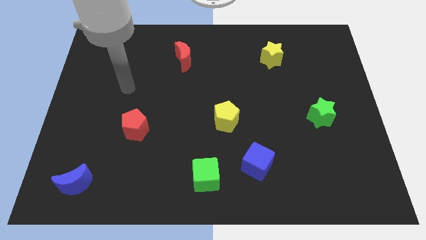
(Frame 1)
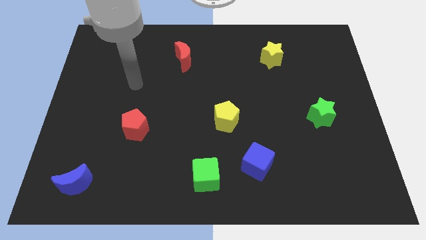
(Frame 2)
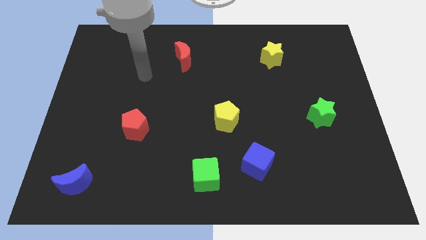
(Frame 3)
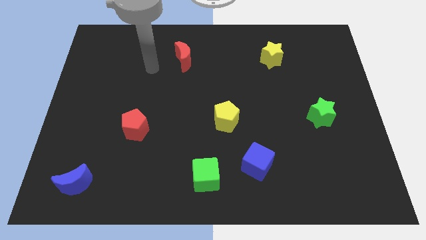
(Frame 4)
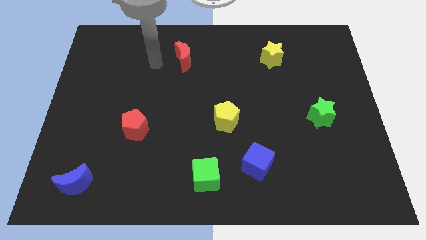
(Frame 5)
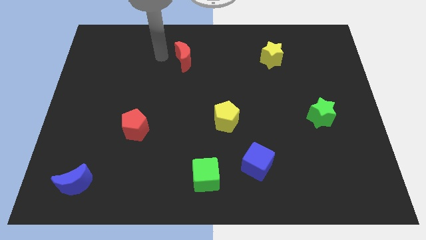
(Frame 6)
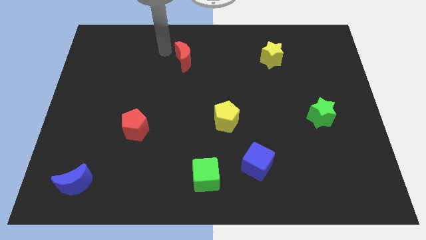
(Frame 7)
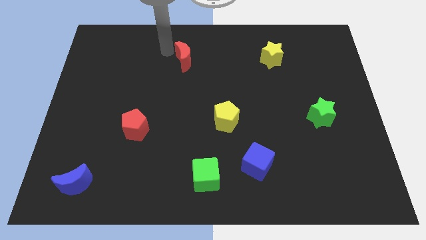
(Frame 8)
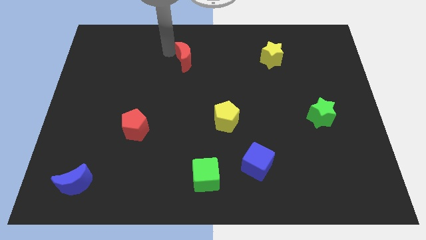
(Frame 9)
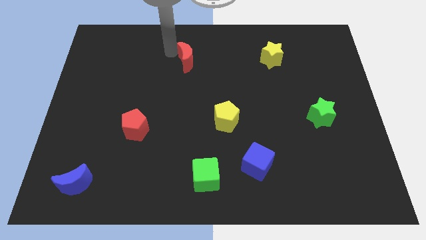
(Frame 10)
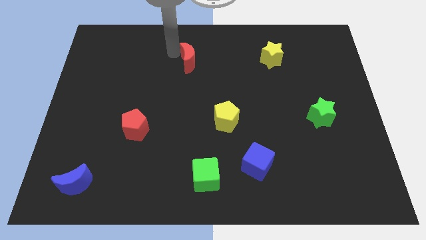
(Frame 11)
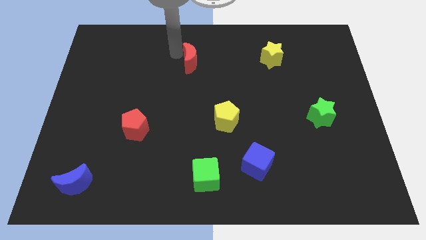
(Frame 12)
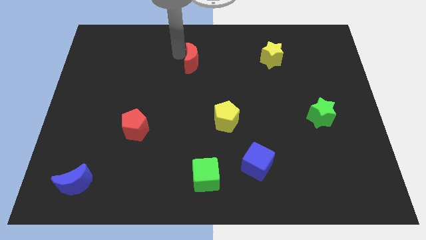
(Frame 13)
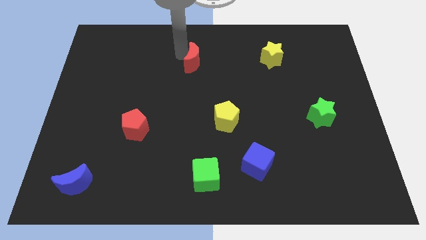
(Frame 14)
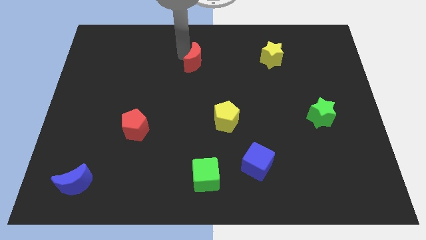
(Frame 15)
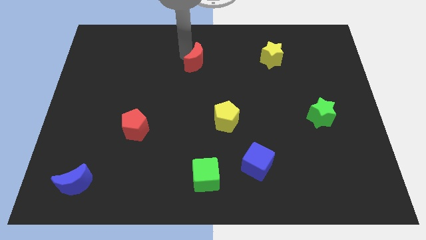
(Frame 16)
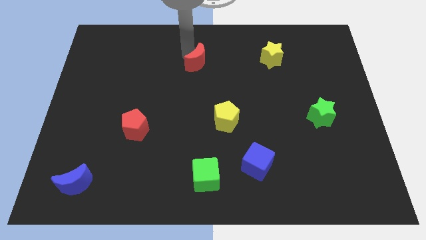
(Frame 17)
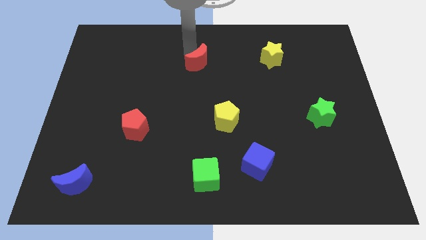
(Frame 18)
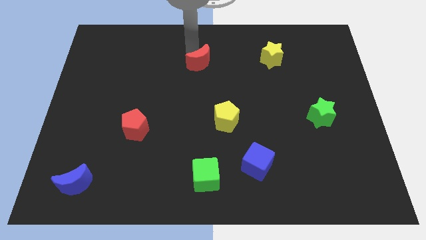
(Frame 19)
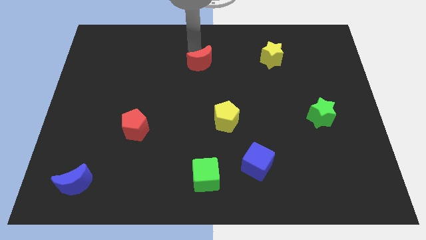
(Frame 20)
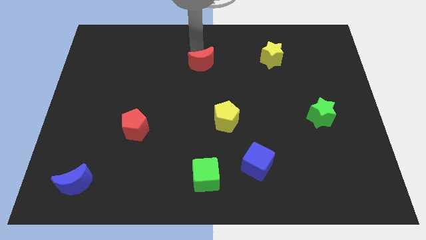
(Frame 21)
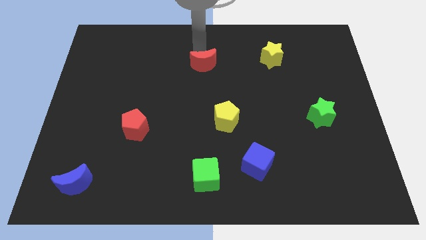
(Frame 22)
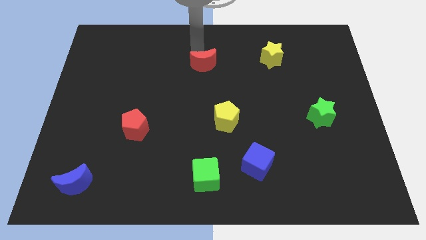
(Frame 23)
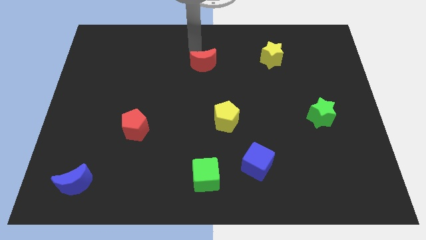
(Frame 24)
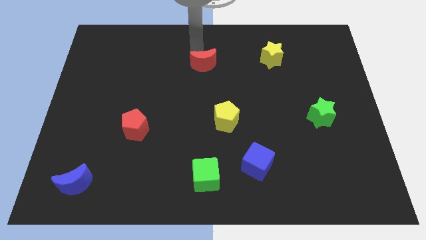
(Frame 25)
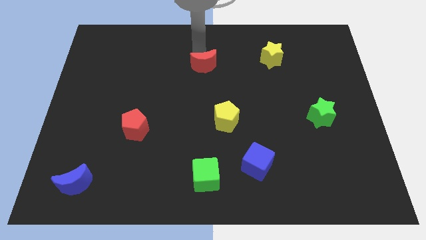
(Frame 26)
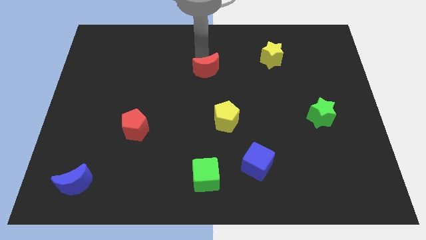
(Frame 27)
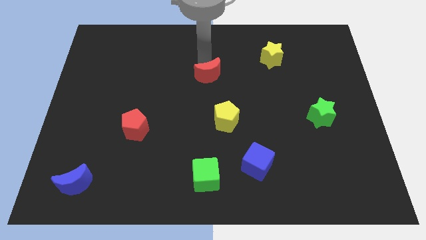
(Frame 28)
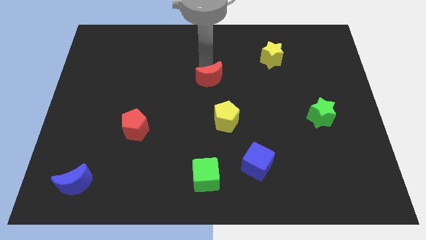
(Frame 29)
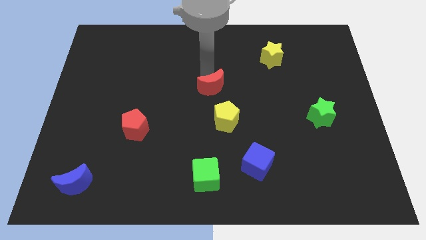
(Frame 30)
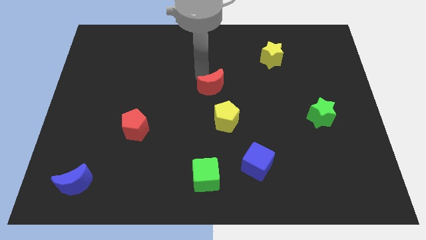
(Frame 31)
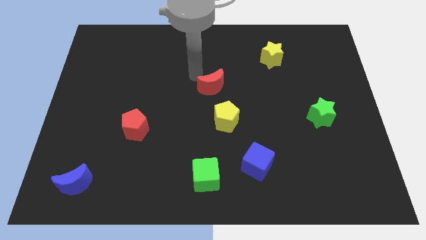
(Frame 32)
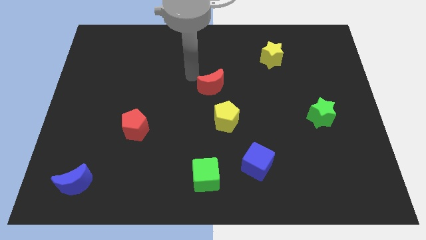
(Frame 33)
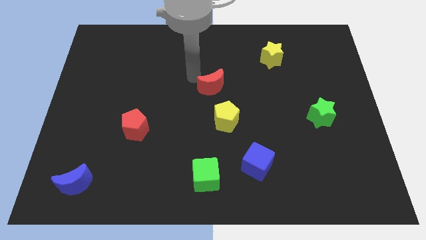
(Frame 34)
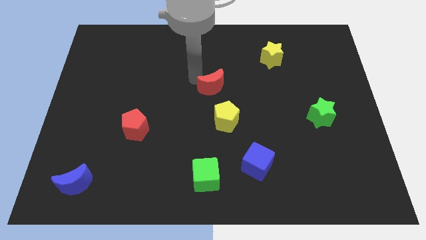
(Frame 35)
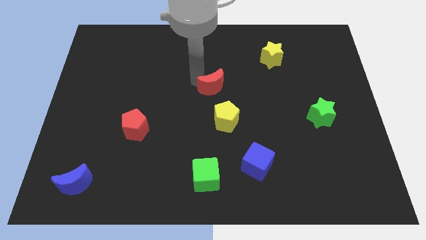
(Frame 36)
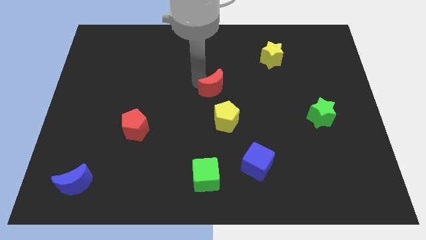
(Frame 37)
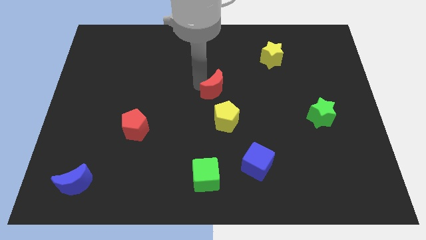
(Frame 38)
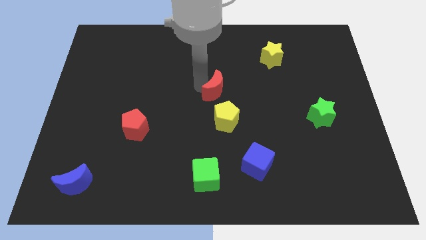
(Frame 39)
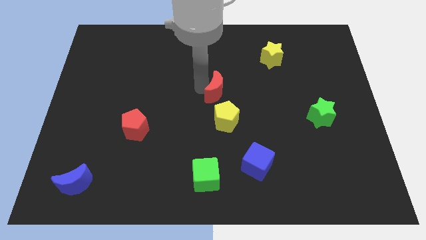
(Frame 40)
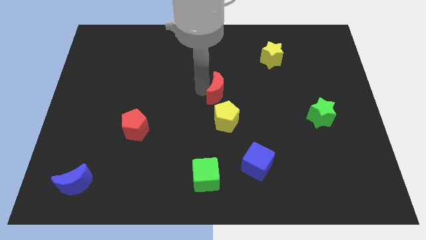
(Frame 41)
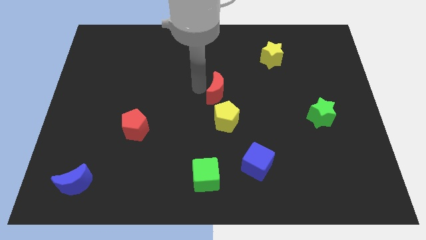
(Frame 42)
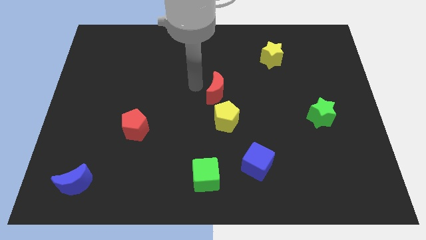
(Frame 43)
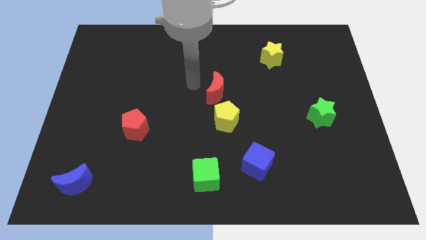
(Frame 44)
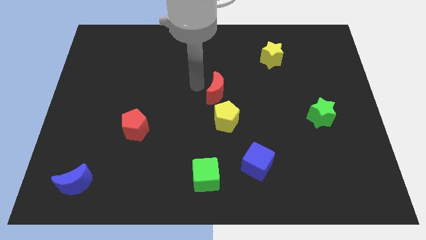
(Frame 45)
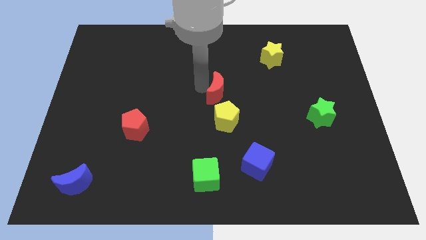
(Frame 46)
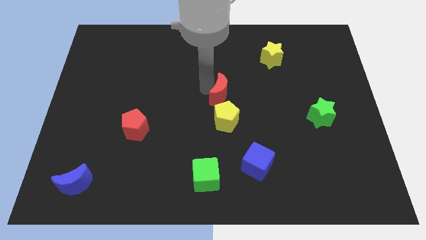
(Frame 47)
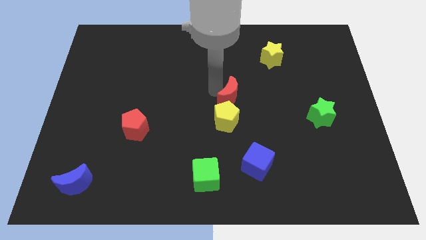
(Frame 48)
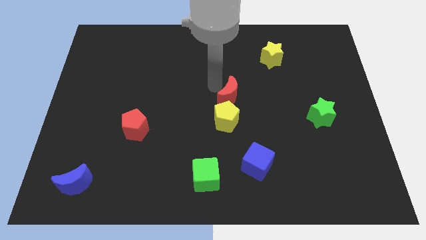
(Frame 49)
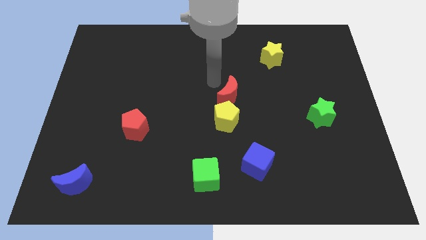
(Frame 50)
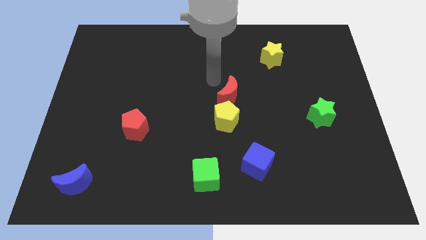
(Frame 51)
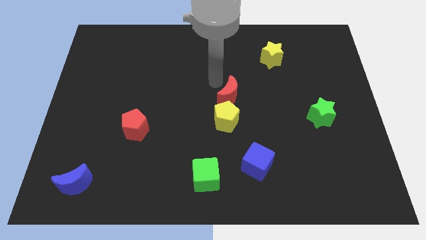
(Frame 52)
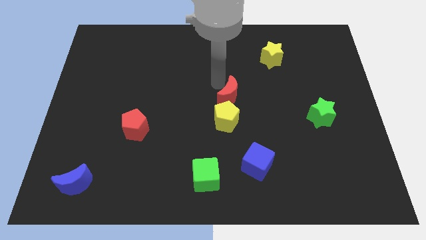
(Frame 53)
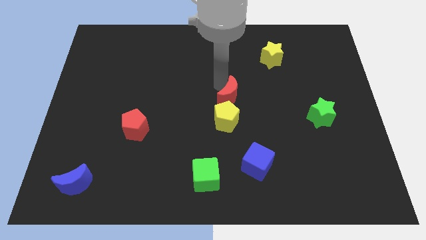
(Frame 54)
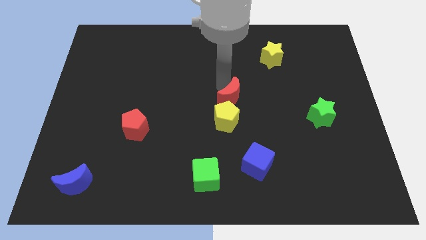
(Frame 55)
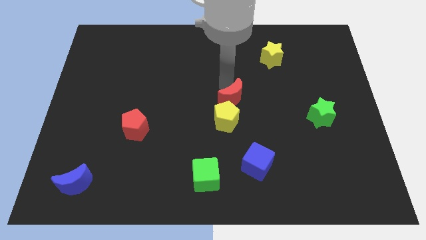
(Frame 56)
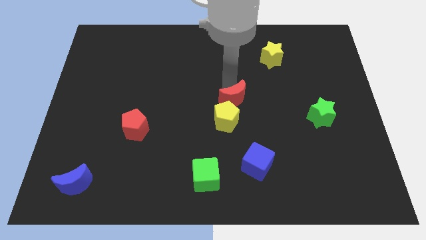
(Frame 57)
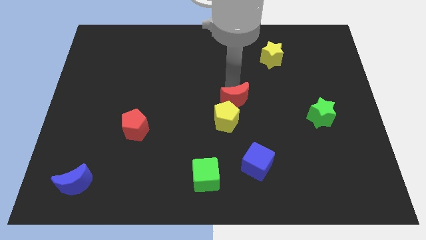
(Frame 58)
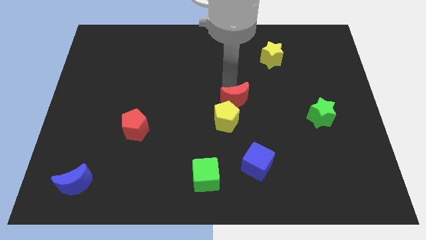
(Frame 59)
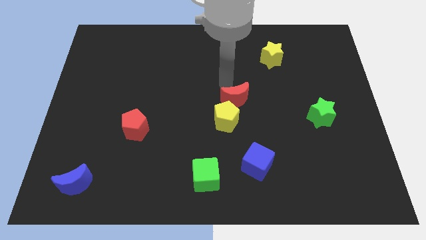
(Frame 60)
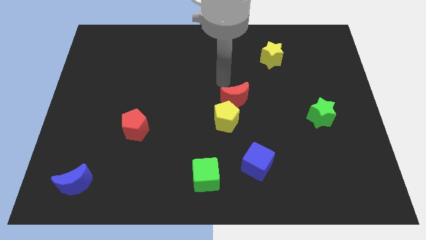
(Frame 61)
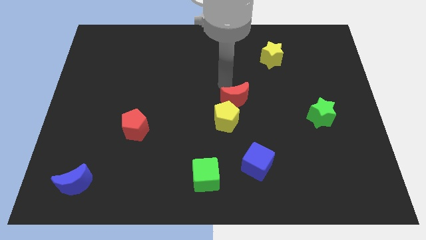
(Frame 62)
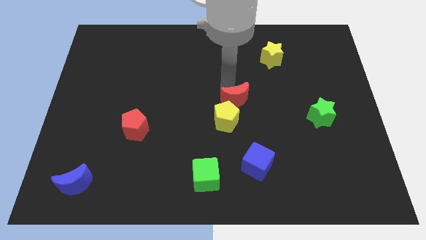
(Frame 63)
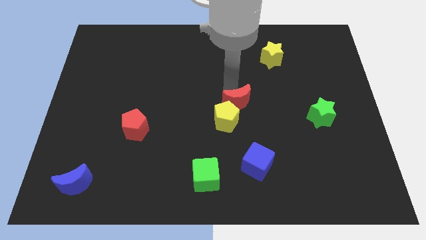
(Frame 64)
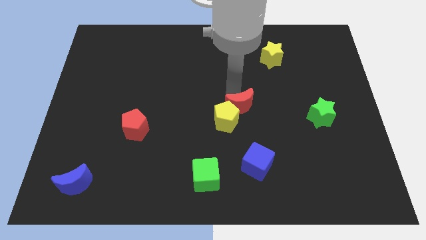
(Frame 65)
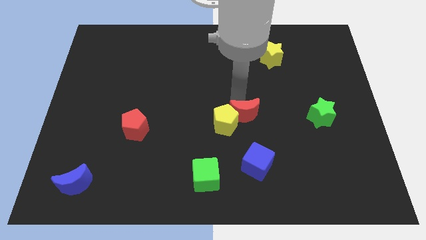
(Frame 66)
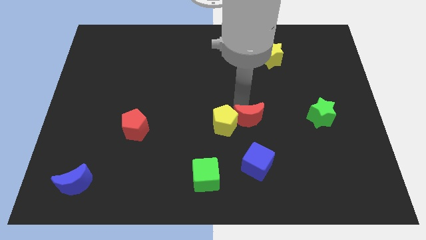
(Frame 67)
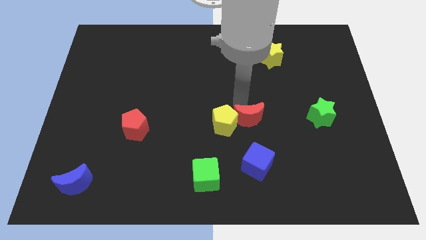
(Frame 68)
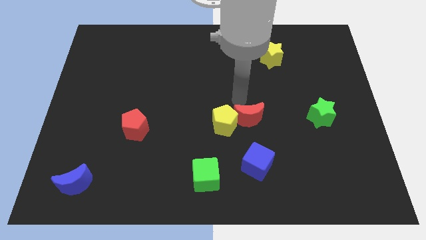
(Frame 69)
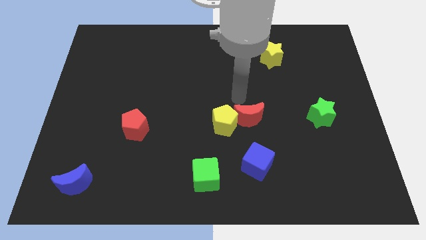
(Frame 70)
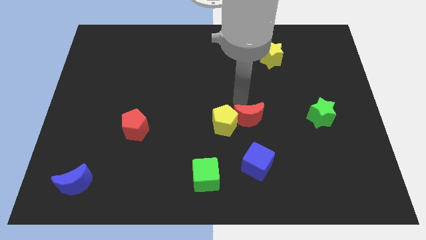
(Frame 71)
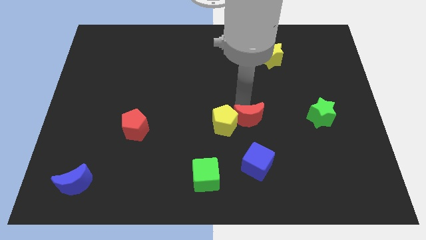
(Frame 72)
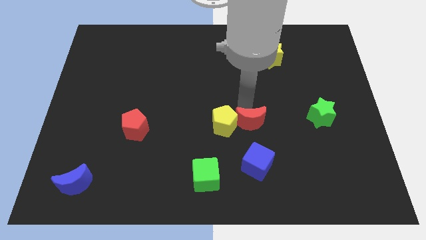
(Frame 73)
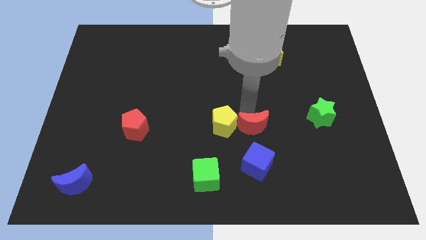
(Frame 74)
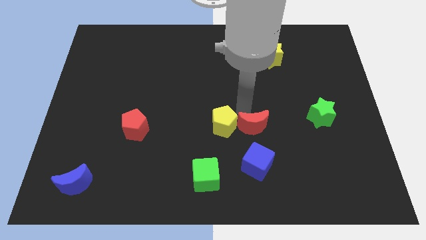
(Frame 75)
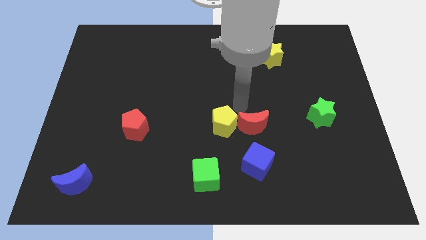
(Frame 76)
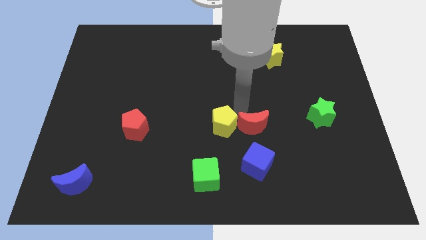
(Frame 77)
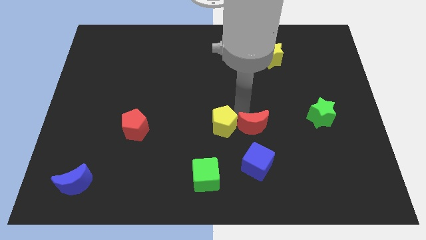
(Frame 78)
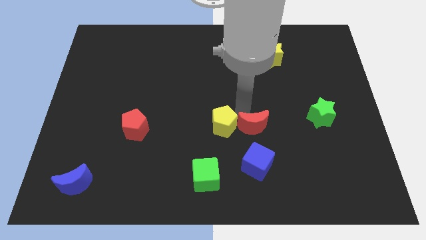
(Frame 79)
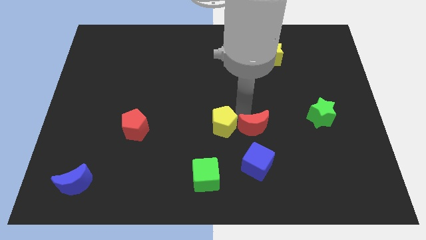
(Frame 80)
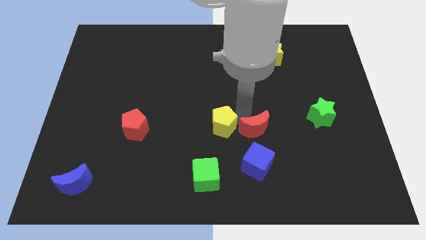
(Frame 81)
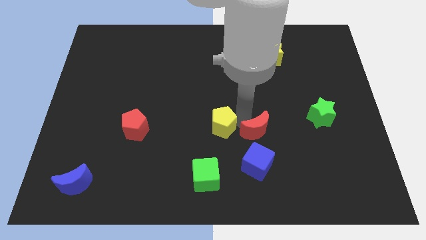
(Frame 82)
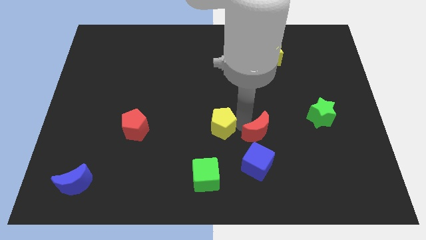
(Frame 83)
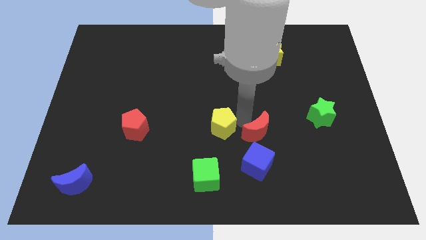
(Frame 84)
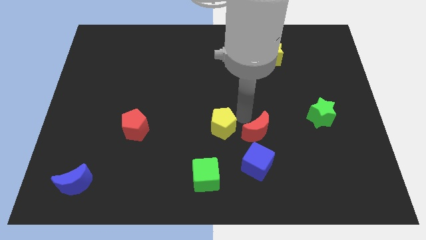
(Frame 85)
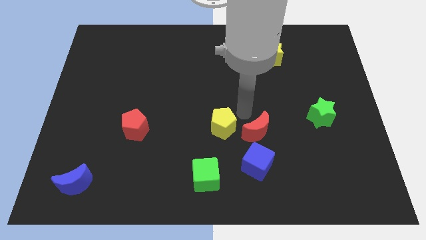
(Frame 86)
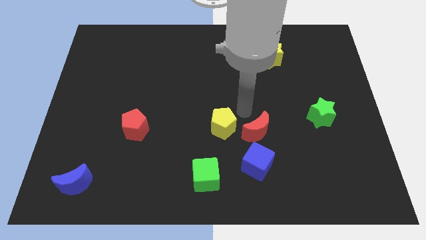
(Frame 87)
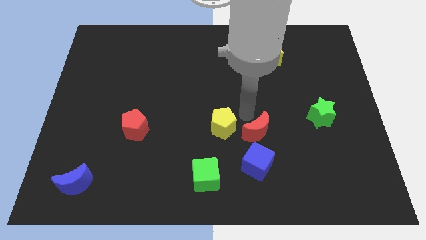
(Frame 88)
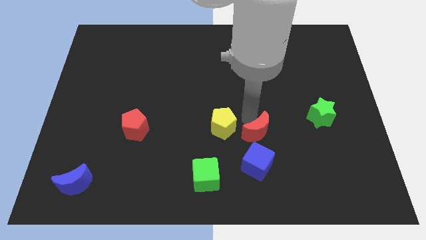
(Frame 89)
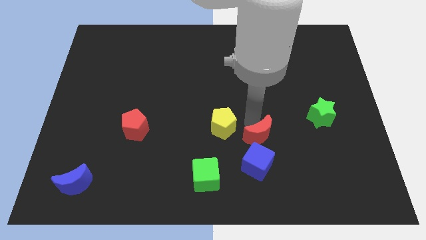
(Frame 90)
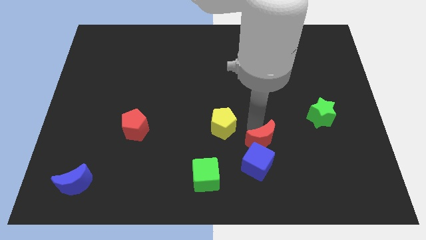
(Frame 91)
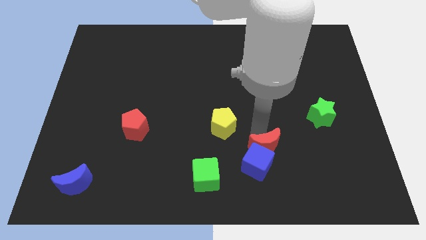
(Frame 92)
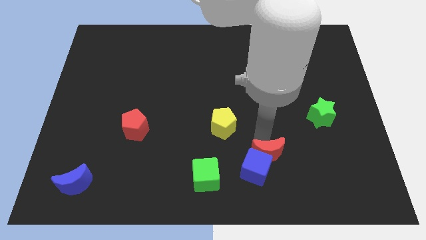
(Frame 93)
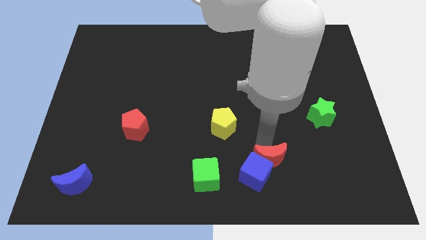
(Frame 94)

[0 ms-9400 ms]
push the red moon just right of the green cube
